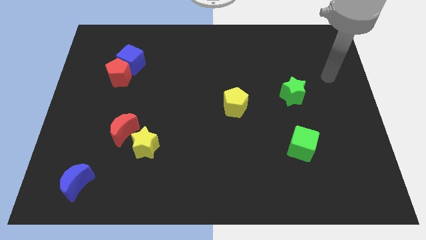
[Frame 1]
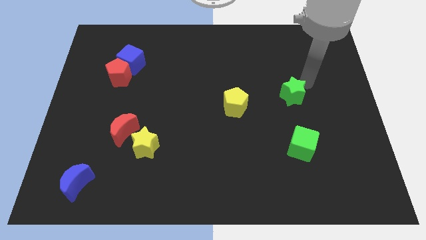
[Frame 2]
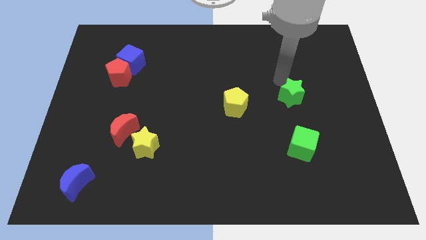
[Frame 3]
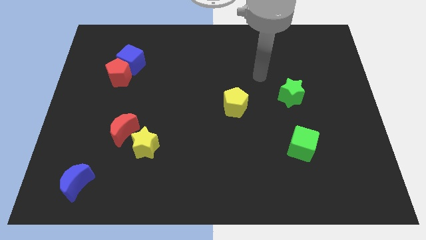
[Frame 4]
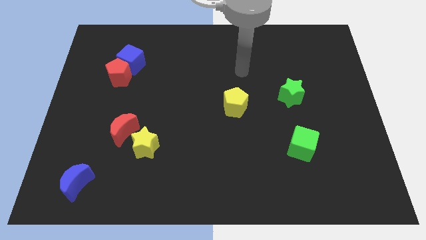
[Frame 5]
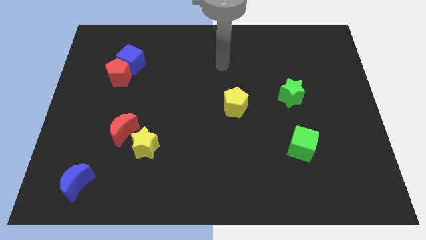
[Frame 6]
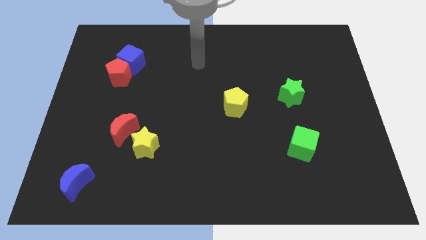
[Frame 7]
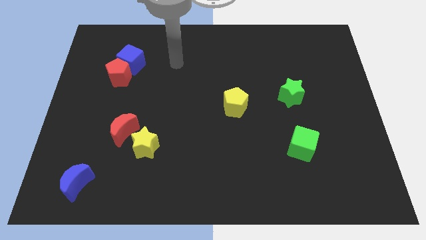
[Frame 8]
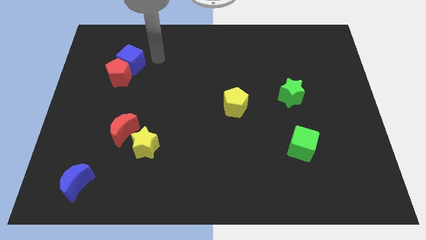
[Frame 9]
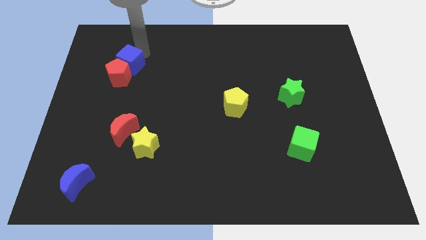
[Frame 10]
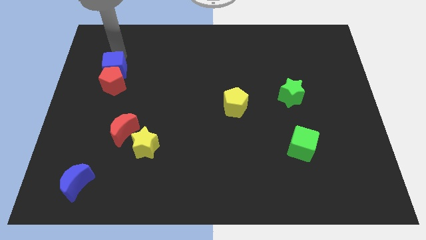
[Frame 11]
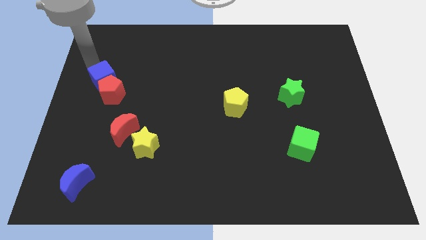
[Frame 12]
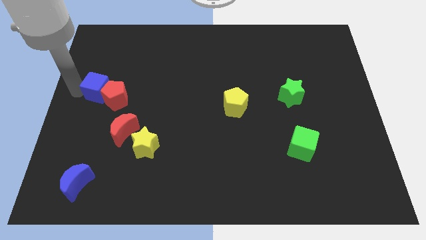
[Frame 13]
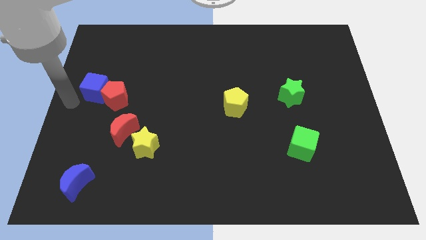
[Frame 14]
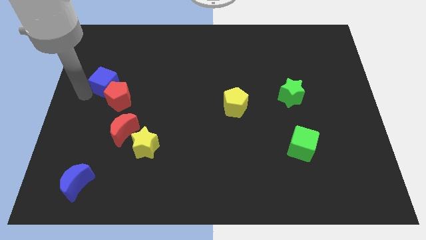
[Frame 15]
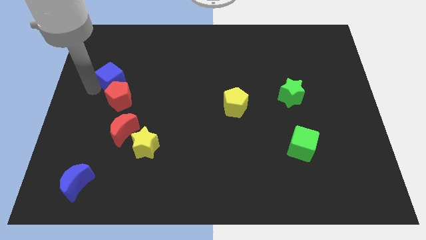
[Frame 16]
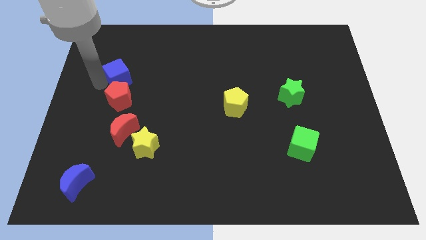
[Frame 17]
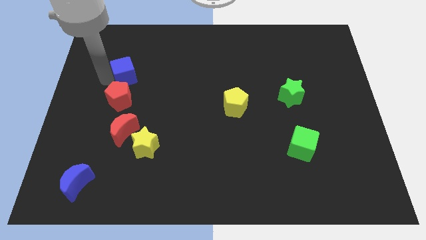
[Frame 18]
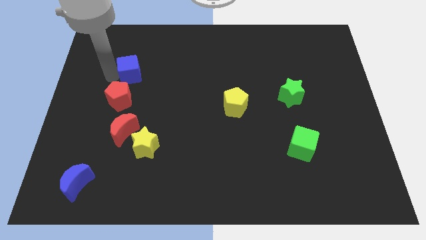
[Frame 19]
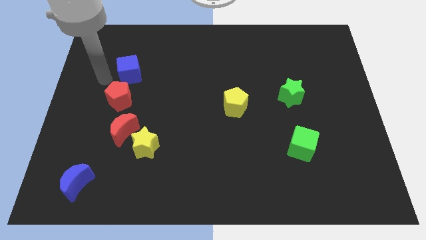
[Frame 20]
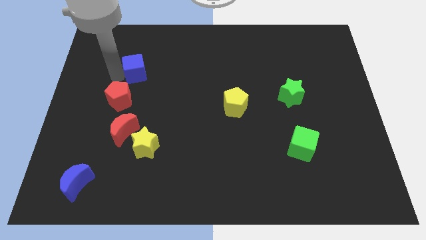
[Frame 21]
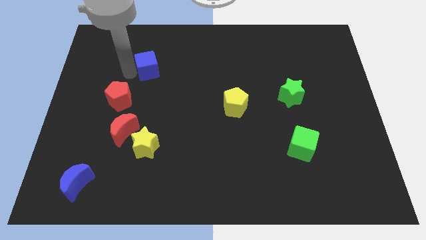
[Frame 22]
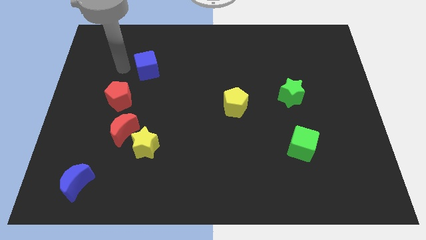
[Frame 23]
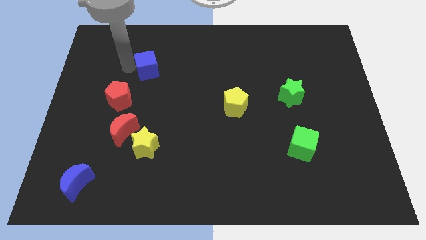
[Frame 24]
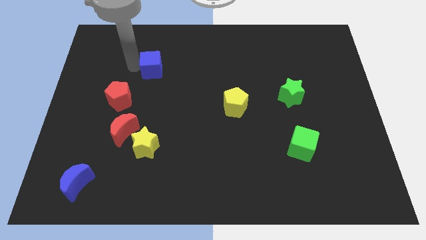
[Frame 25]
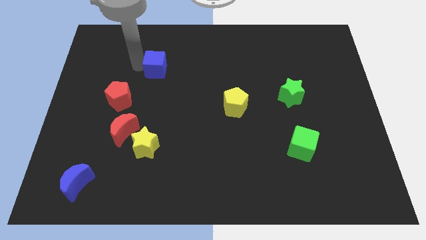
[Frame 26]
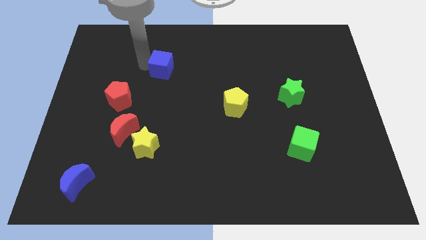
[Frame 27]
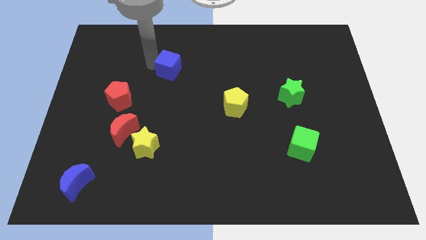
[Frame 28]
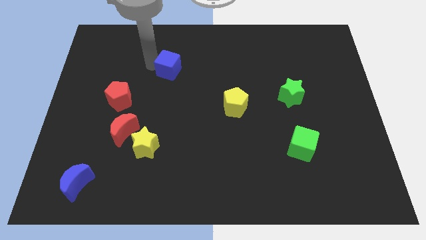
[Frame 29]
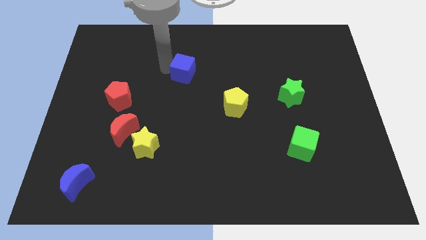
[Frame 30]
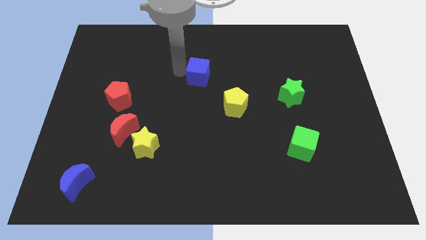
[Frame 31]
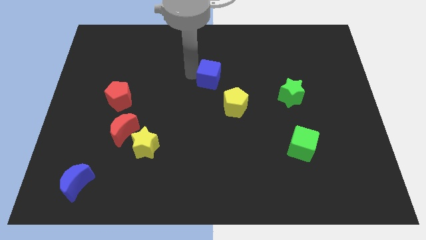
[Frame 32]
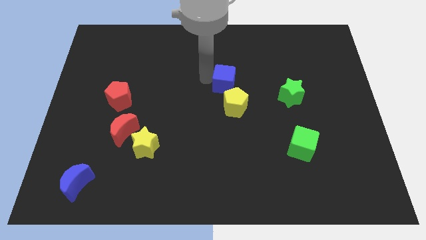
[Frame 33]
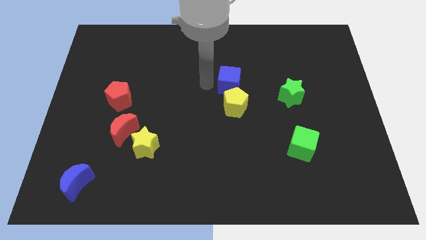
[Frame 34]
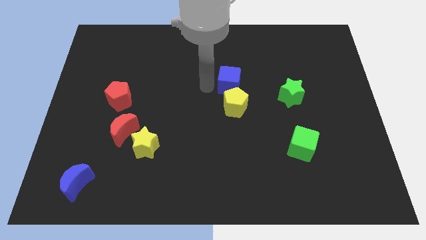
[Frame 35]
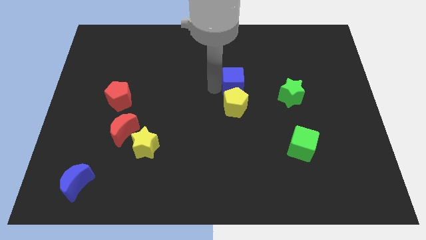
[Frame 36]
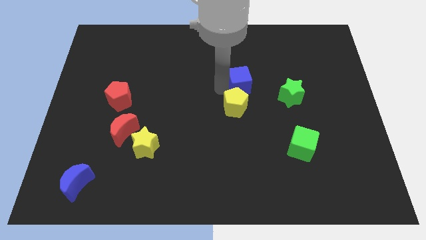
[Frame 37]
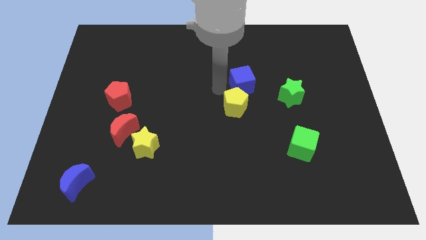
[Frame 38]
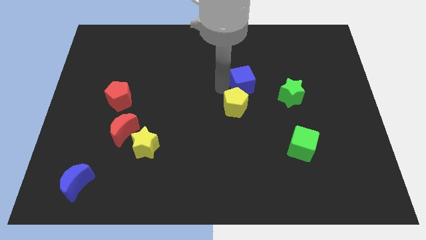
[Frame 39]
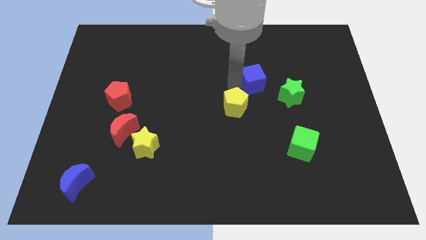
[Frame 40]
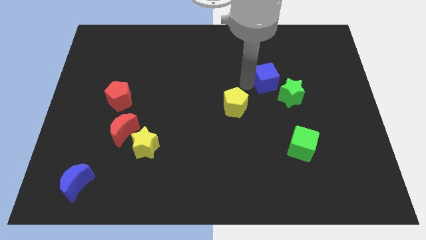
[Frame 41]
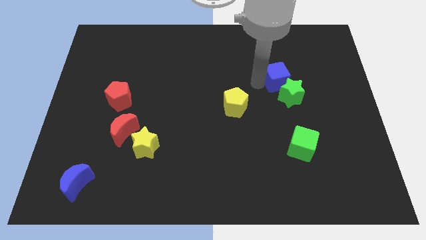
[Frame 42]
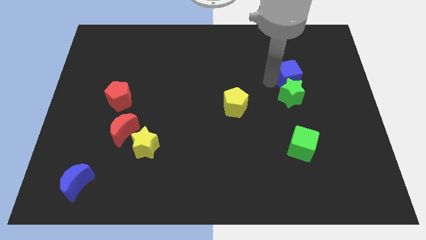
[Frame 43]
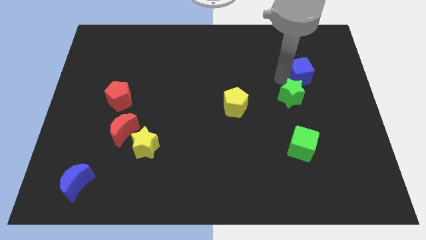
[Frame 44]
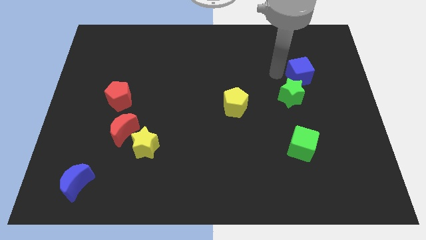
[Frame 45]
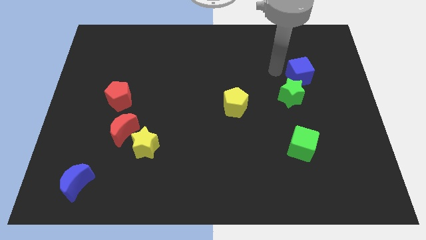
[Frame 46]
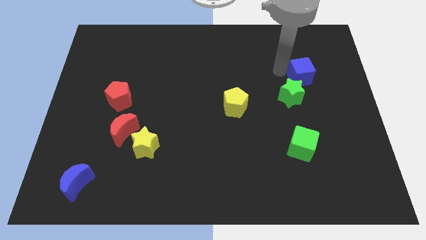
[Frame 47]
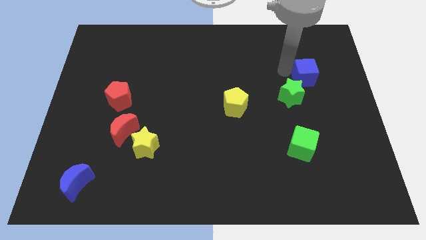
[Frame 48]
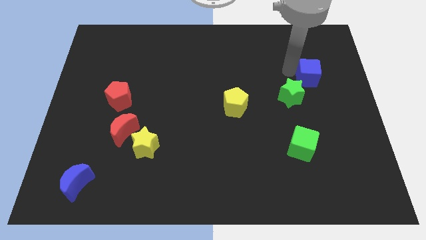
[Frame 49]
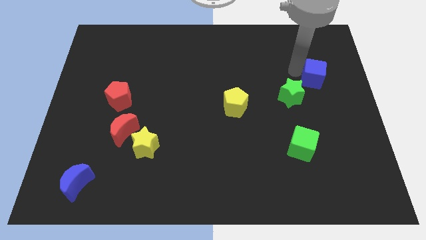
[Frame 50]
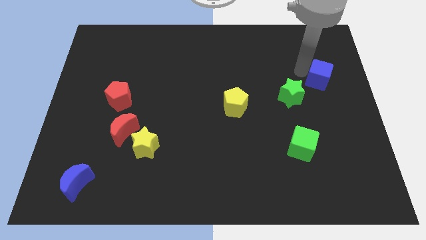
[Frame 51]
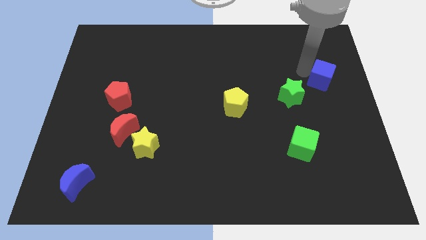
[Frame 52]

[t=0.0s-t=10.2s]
slide the blue cube to the right side

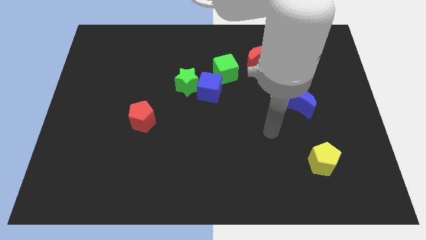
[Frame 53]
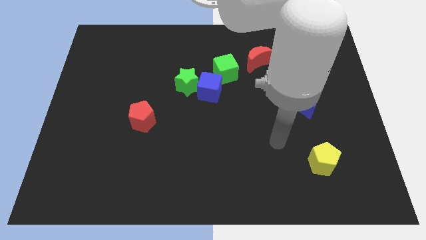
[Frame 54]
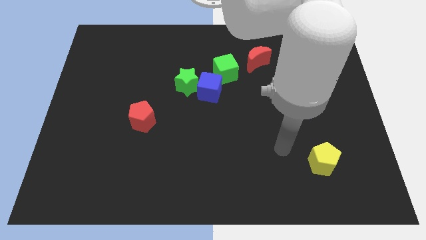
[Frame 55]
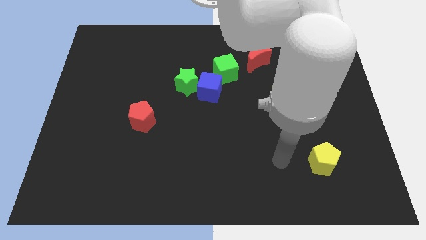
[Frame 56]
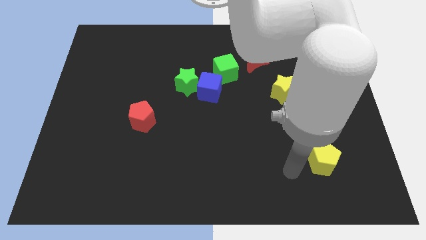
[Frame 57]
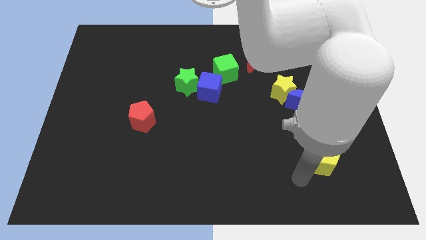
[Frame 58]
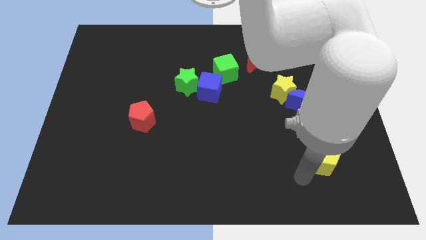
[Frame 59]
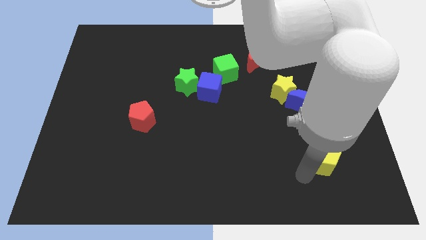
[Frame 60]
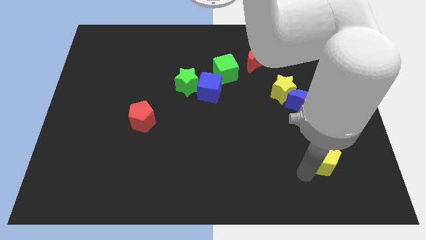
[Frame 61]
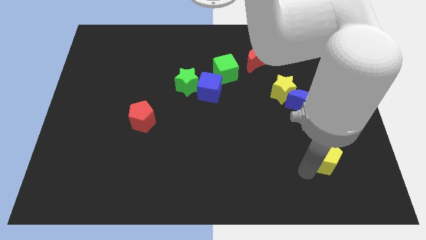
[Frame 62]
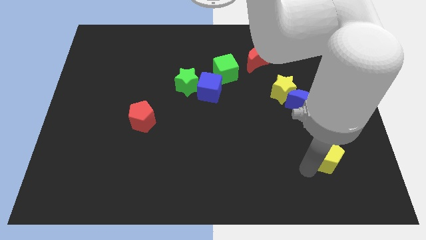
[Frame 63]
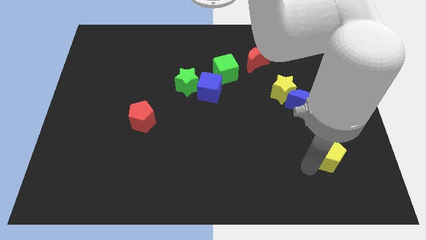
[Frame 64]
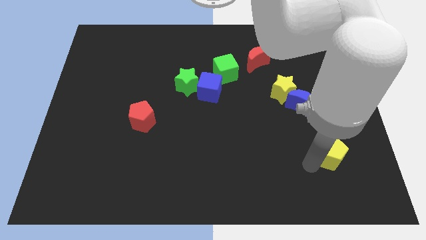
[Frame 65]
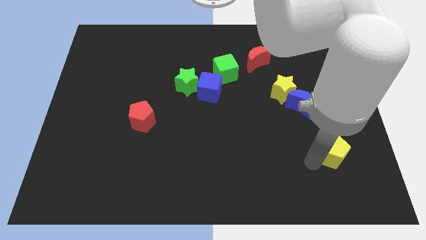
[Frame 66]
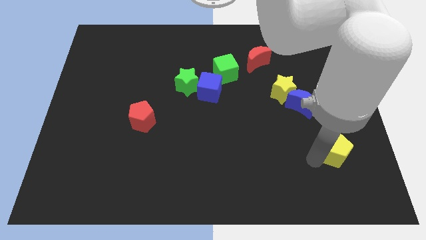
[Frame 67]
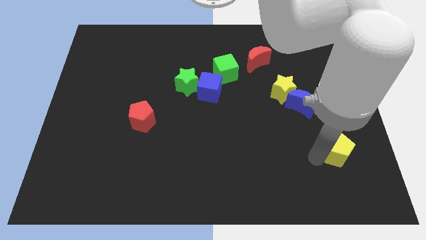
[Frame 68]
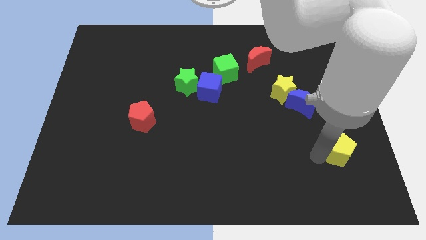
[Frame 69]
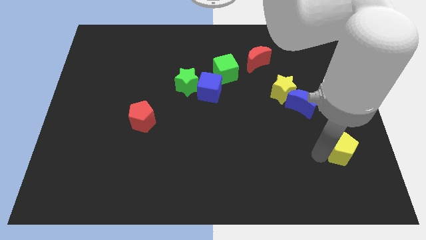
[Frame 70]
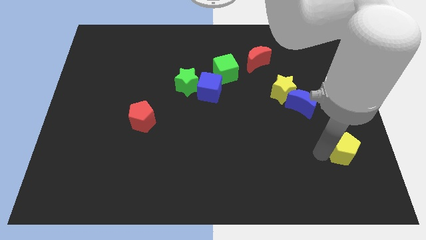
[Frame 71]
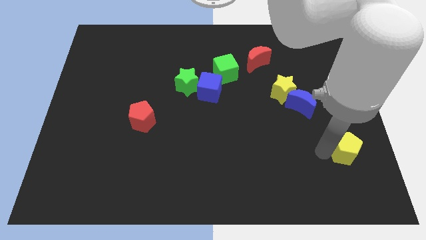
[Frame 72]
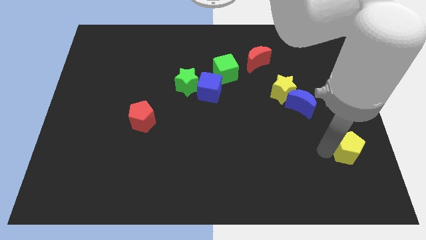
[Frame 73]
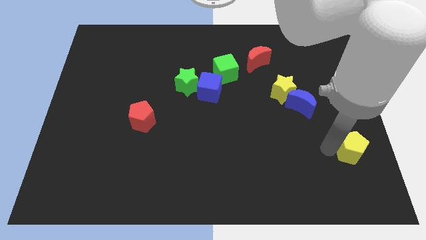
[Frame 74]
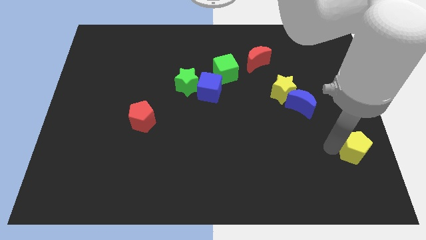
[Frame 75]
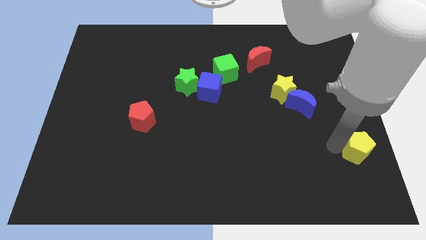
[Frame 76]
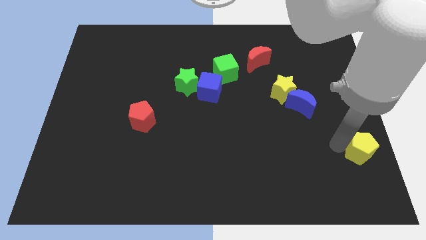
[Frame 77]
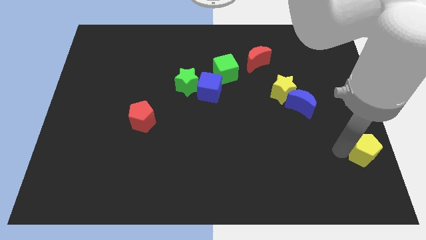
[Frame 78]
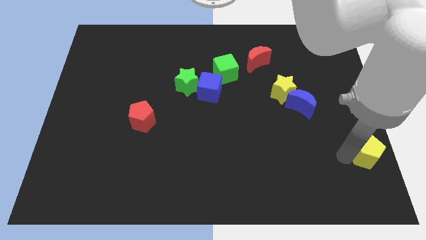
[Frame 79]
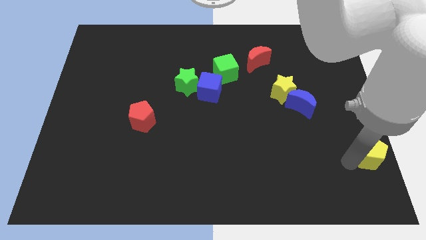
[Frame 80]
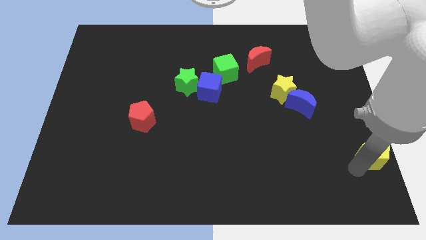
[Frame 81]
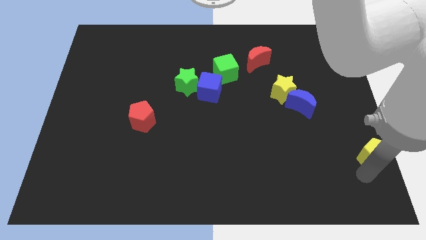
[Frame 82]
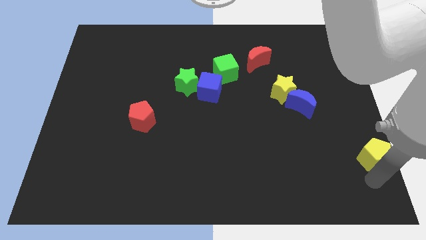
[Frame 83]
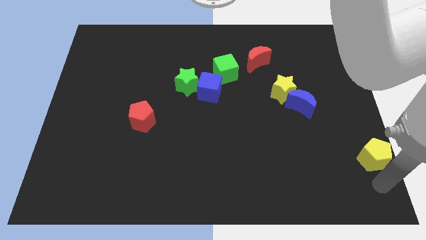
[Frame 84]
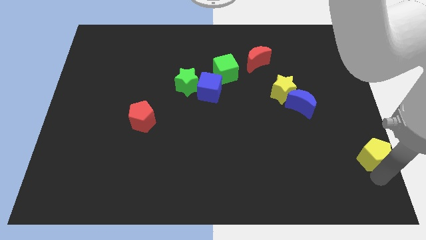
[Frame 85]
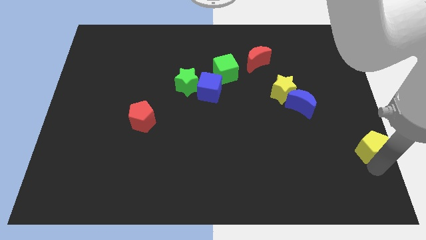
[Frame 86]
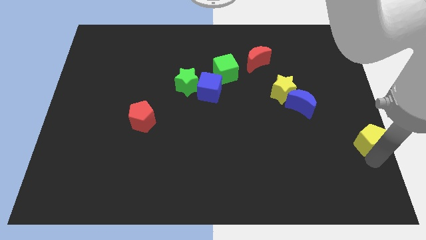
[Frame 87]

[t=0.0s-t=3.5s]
push the yellow pentagon to the right side
